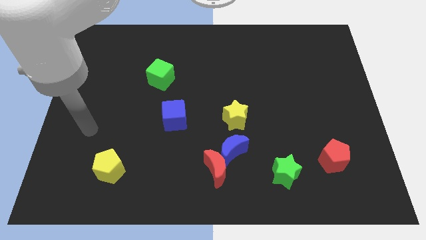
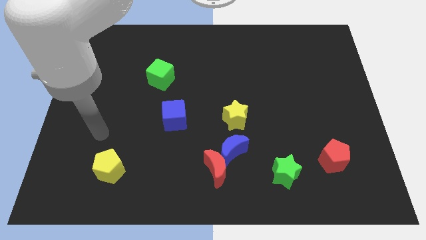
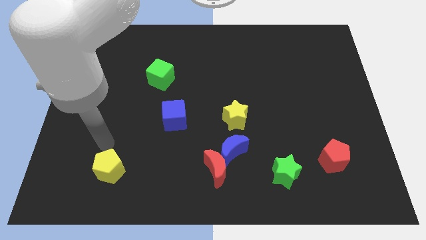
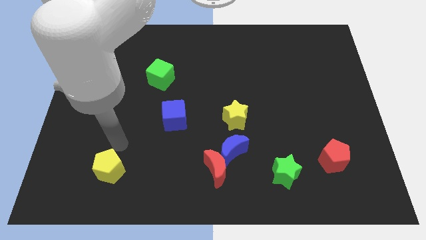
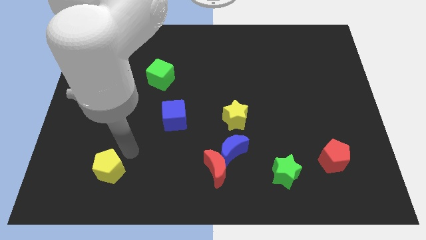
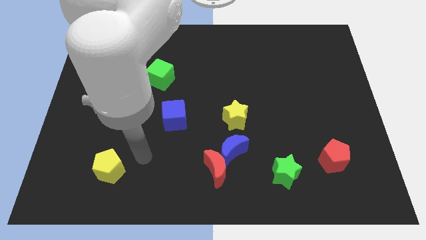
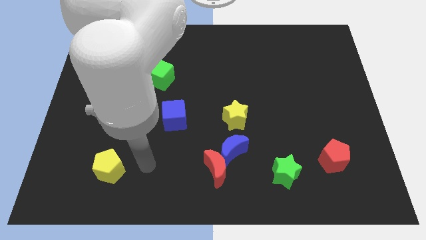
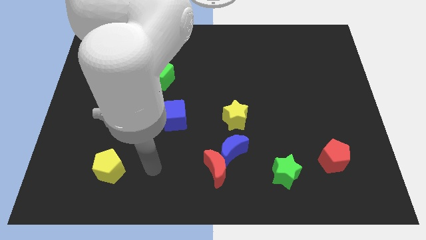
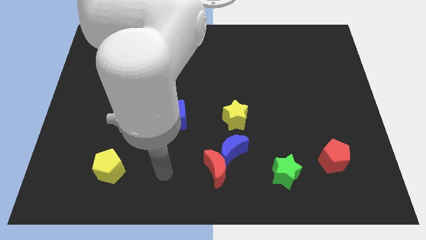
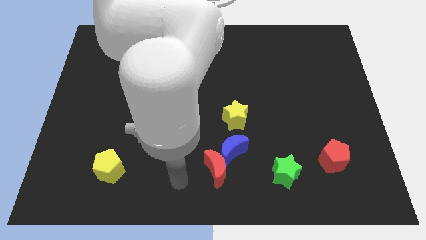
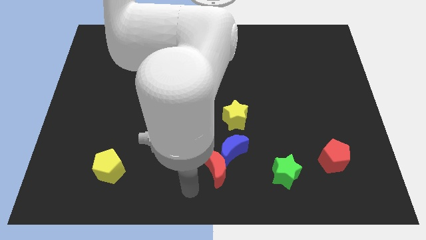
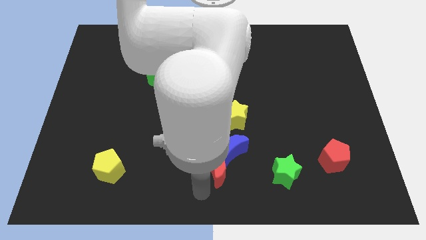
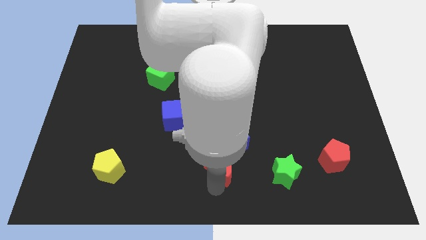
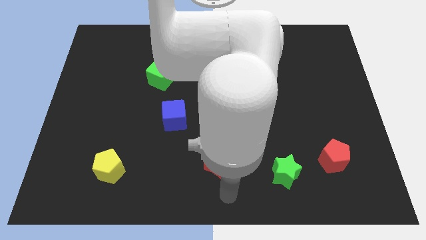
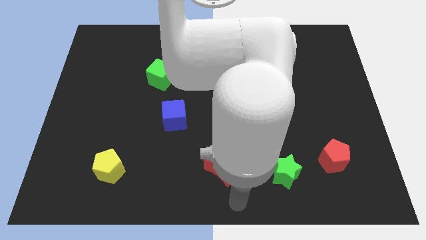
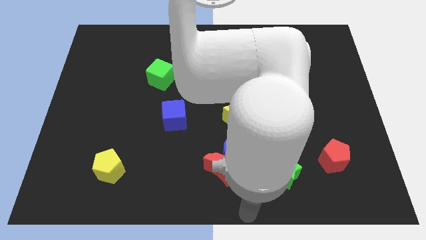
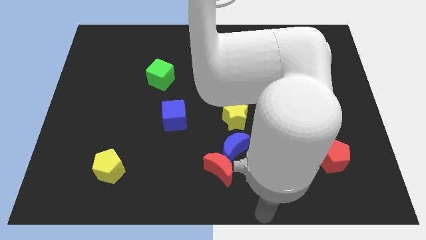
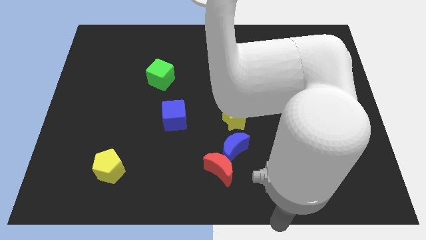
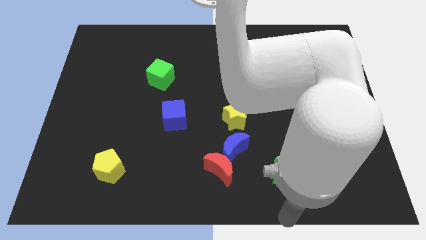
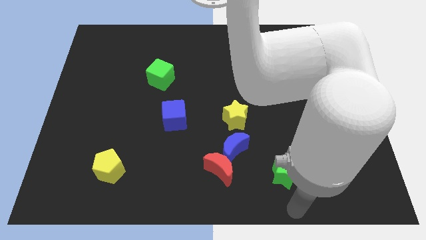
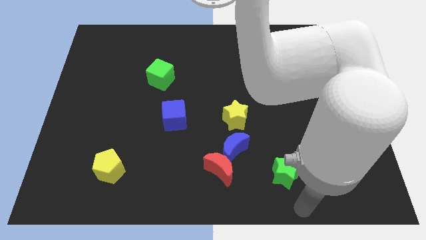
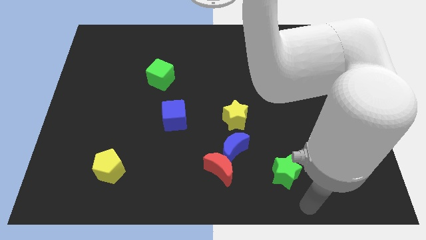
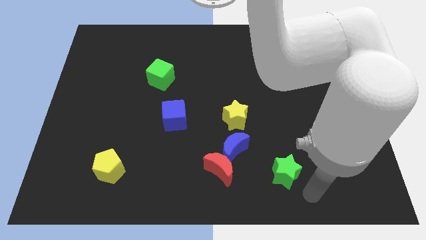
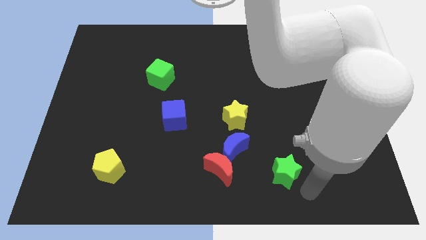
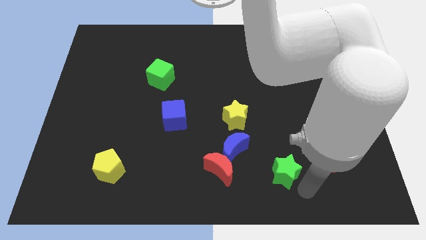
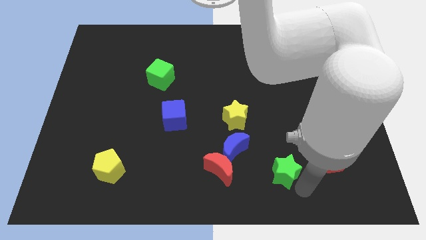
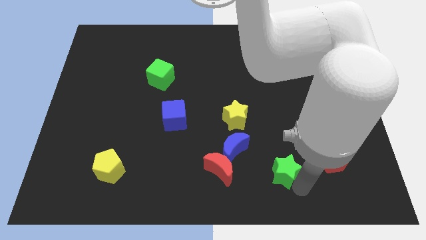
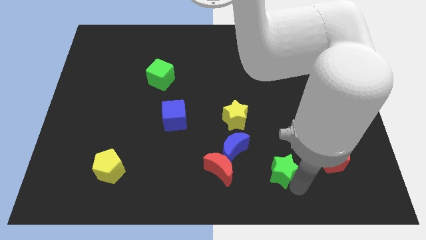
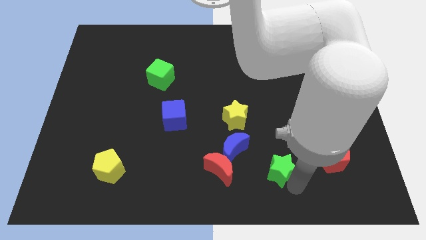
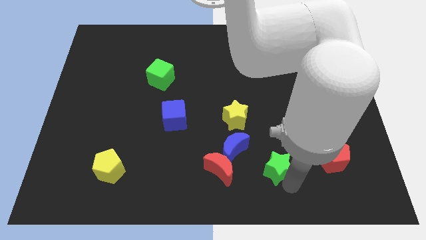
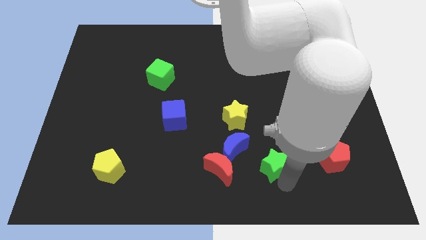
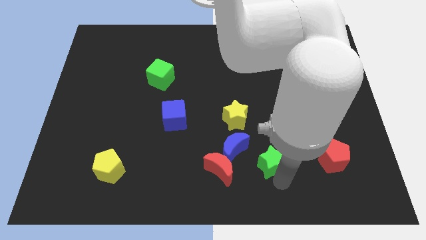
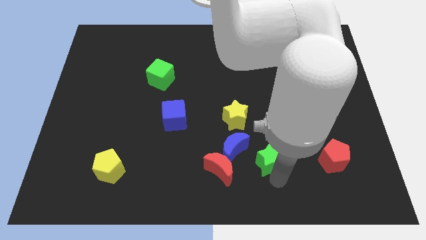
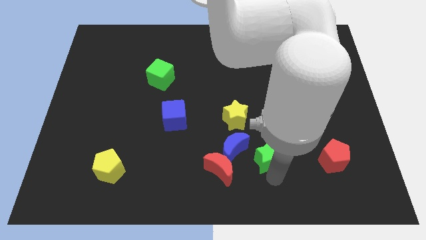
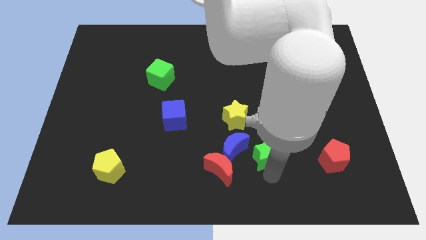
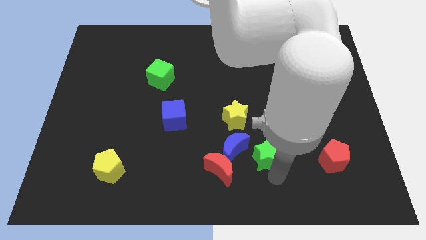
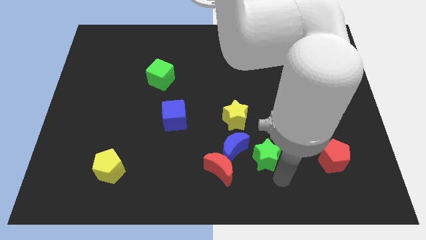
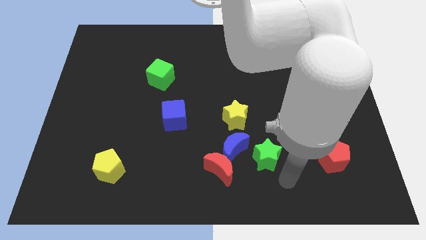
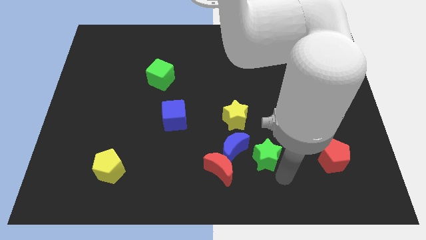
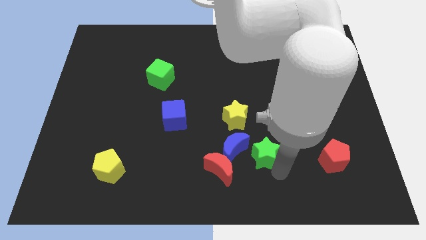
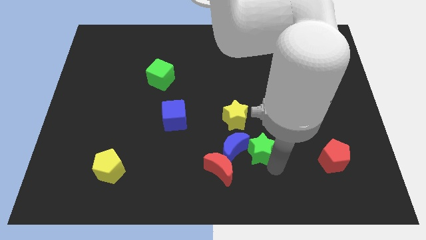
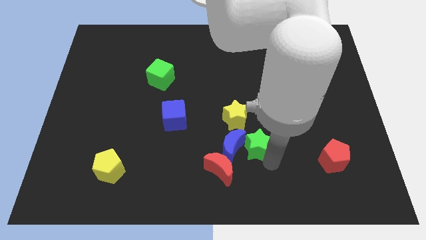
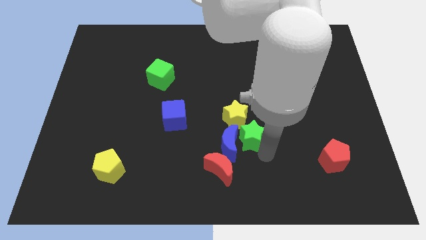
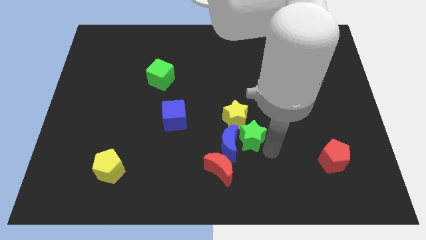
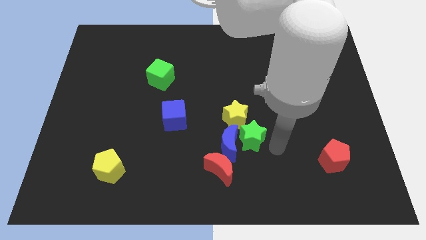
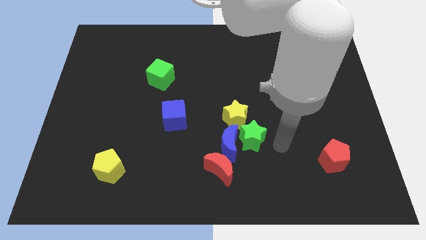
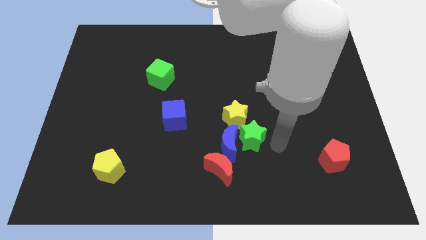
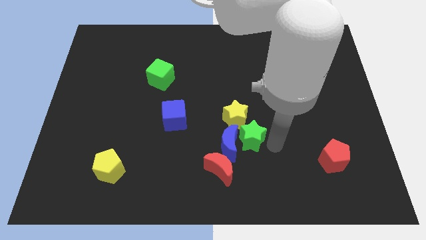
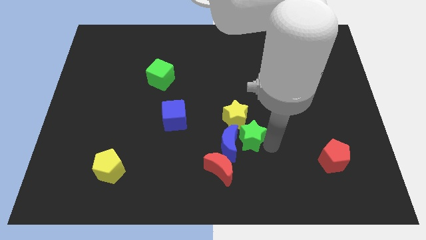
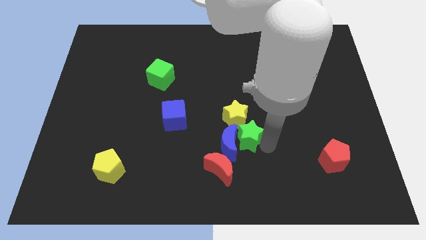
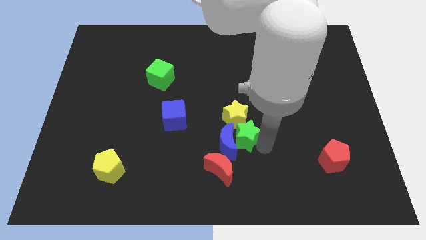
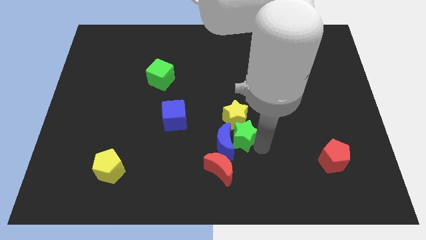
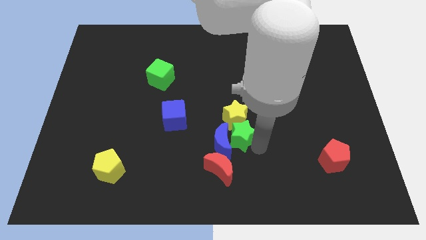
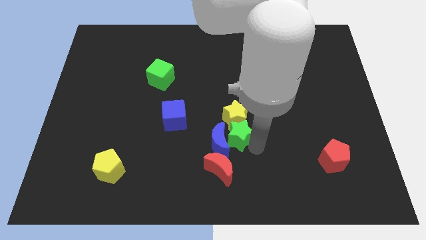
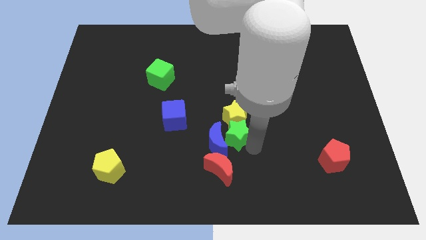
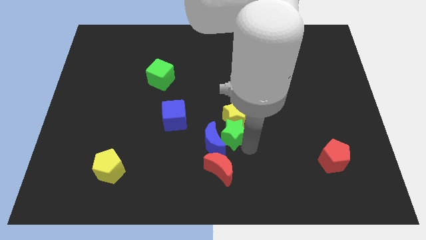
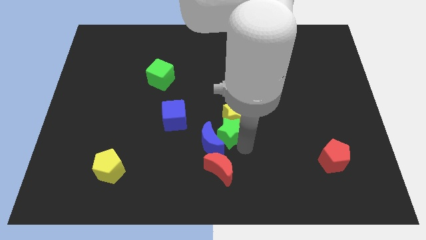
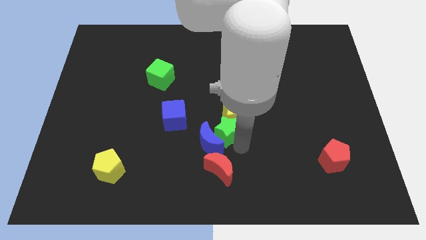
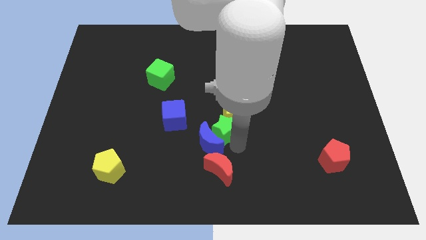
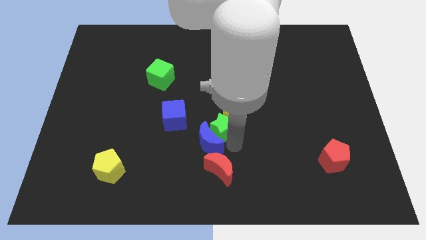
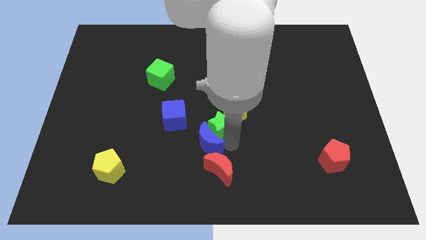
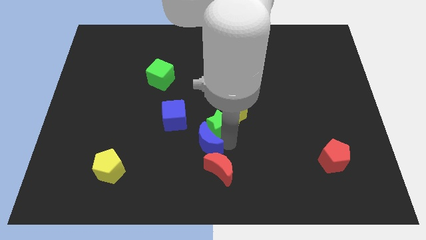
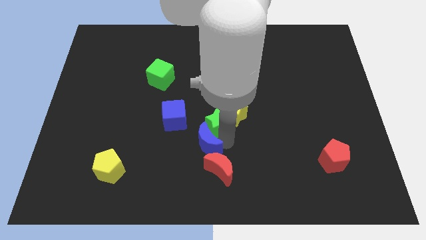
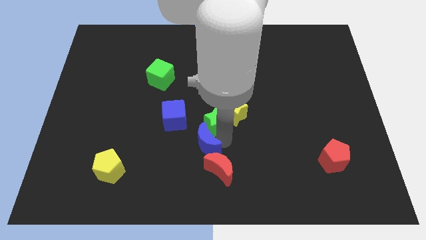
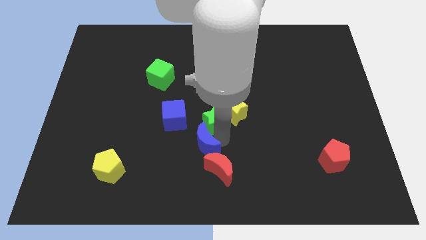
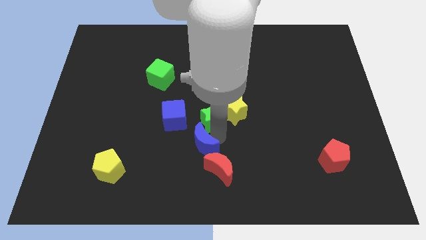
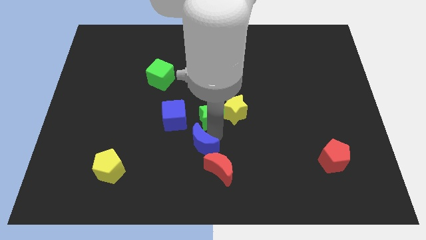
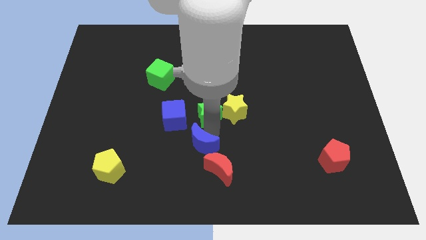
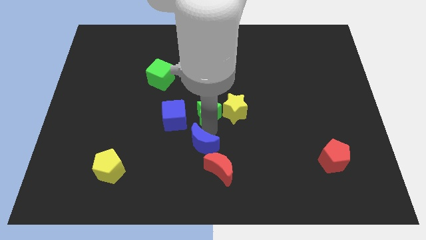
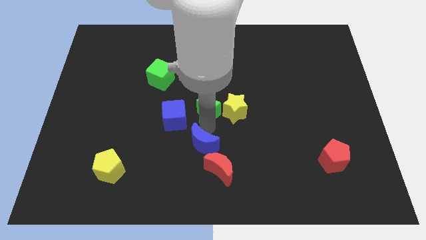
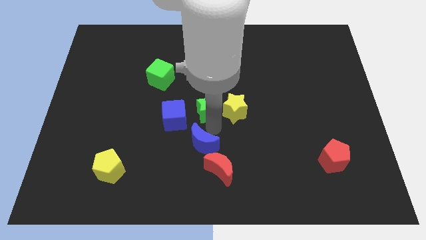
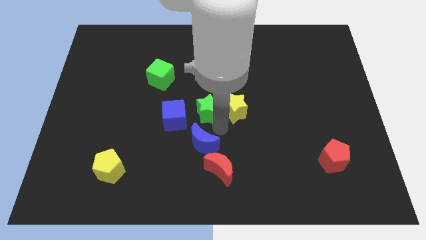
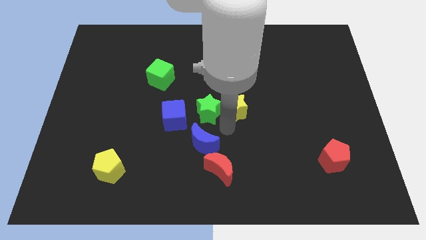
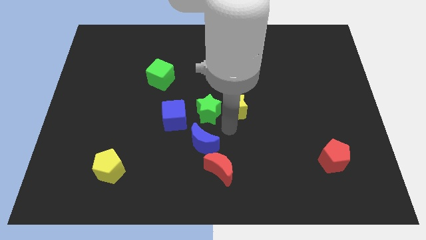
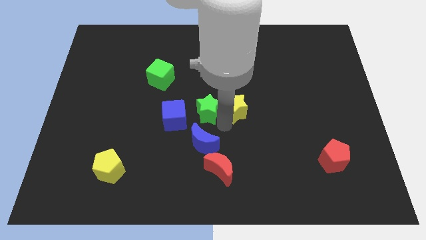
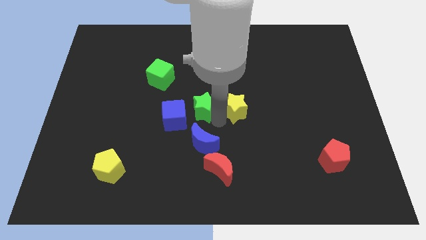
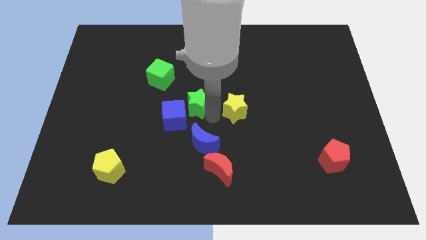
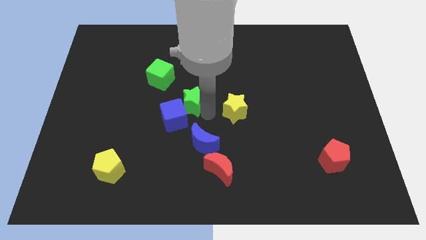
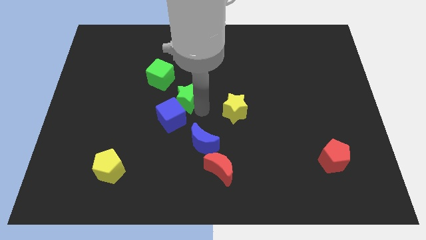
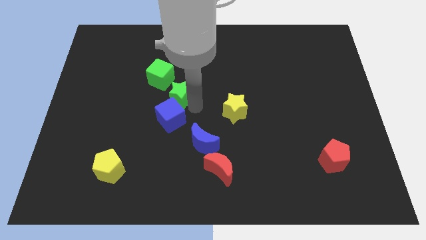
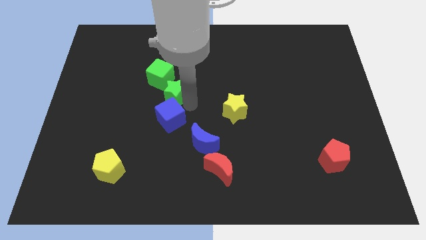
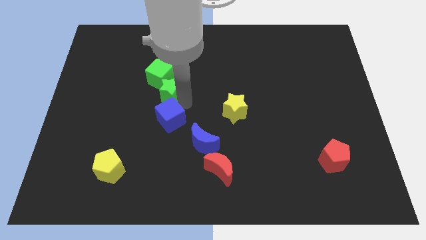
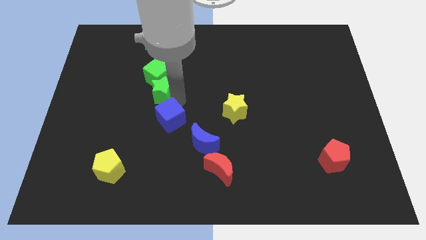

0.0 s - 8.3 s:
put the green star towards the green cube
